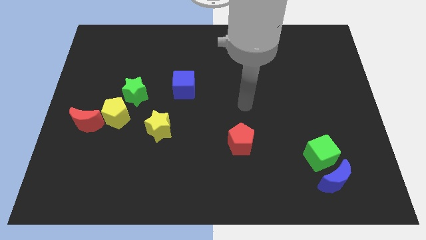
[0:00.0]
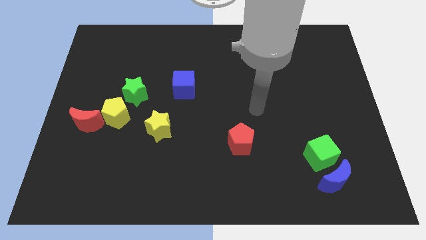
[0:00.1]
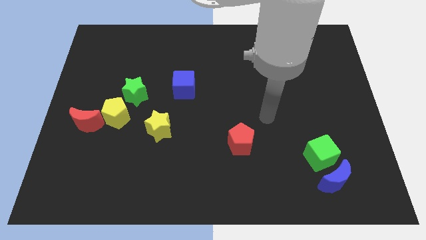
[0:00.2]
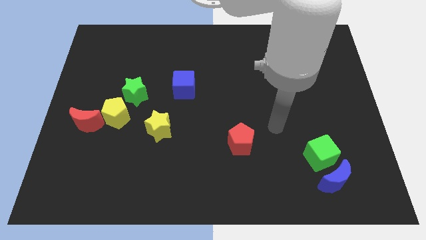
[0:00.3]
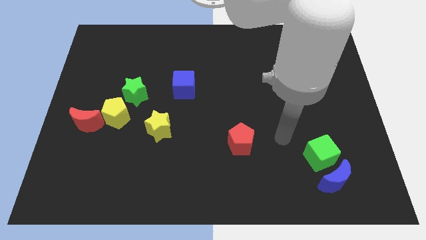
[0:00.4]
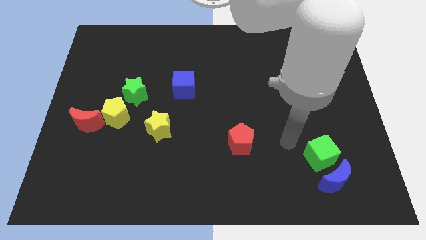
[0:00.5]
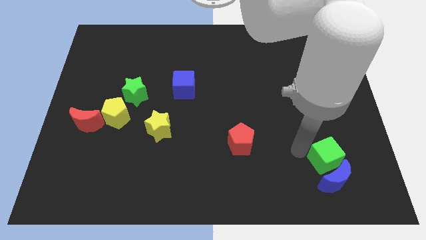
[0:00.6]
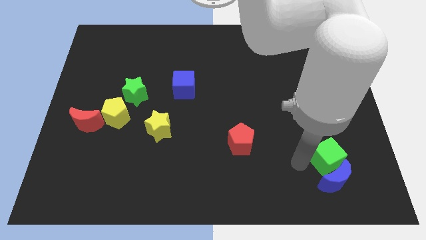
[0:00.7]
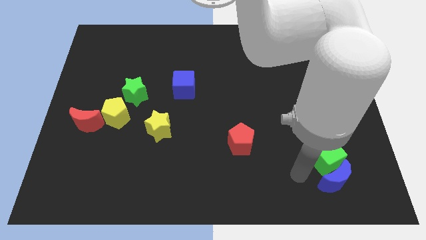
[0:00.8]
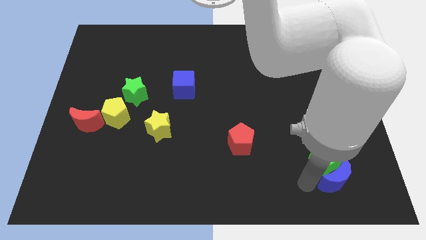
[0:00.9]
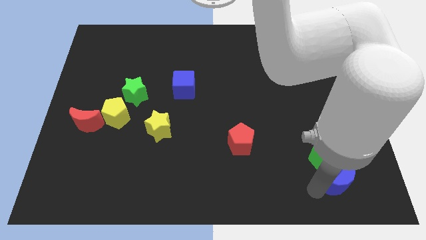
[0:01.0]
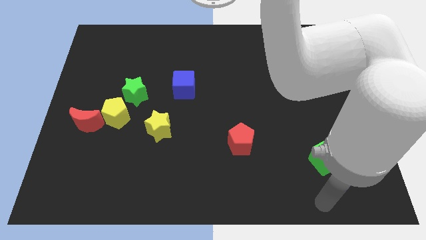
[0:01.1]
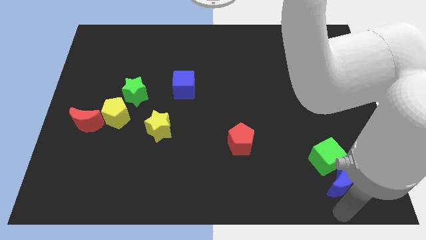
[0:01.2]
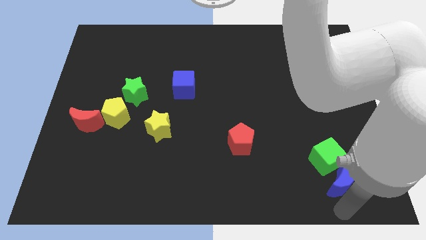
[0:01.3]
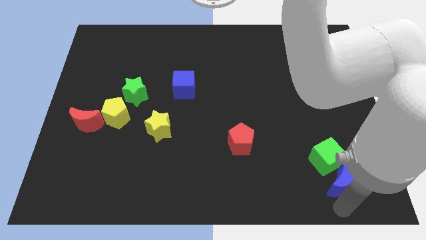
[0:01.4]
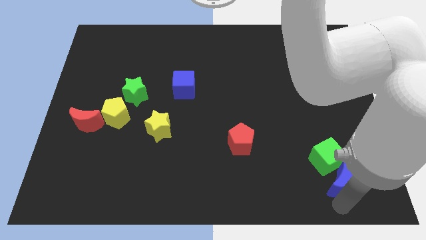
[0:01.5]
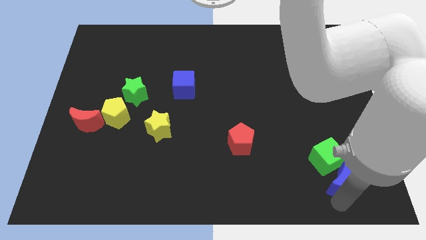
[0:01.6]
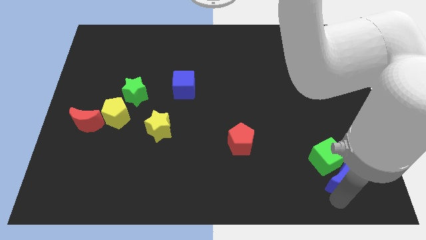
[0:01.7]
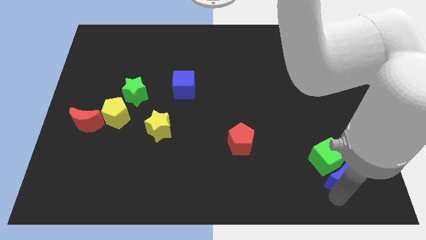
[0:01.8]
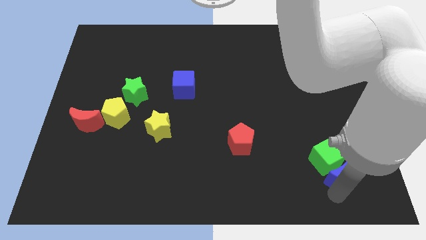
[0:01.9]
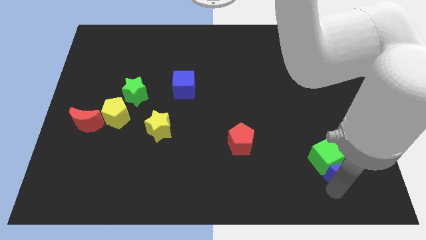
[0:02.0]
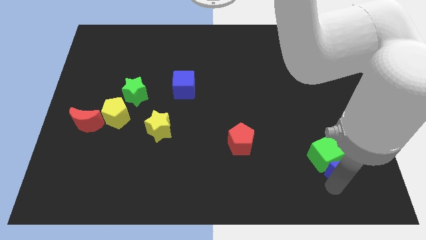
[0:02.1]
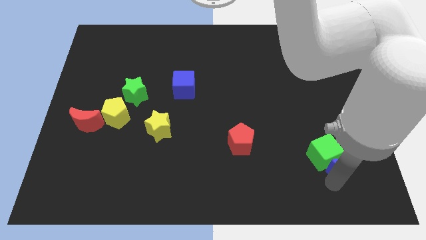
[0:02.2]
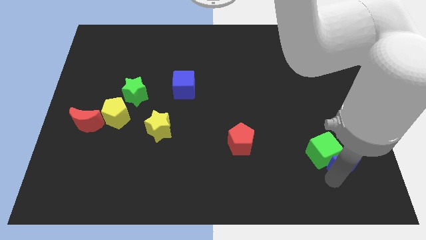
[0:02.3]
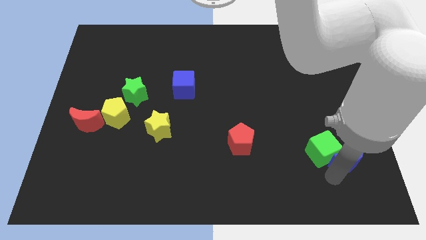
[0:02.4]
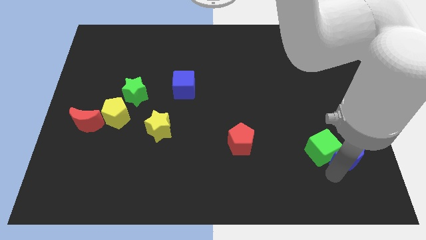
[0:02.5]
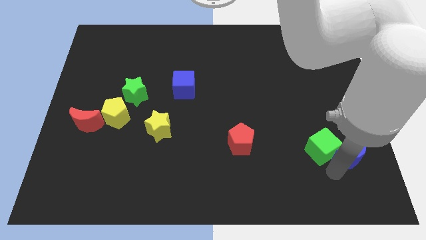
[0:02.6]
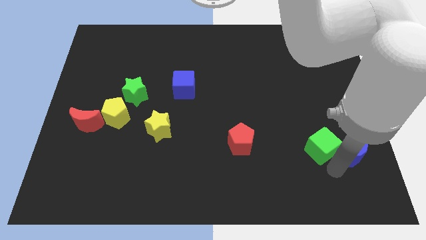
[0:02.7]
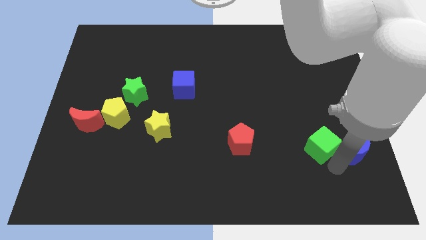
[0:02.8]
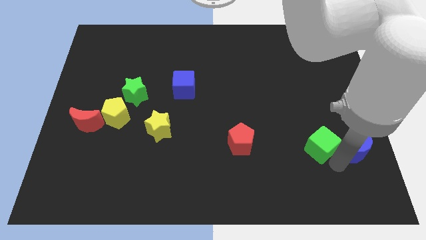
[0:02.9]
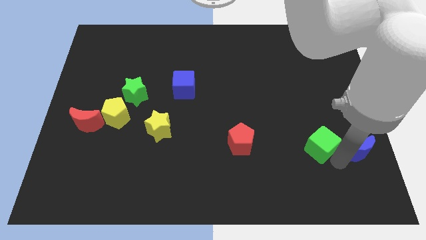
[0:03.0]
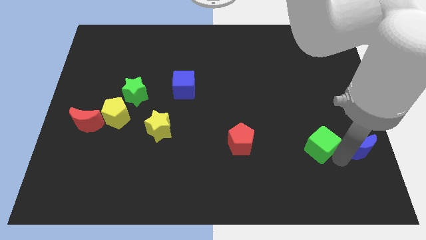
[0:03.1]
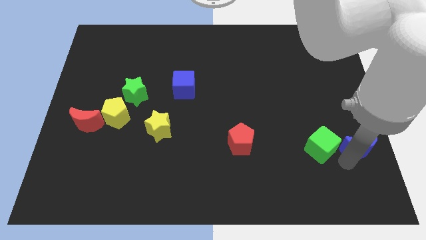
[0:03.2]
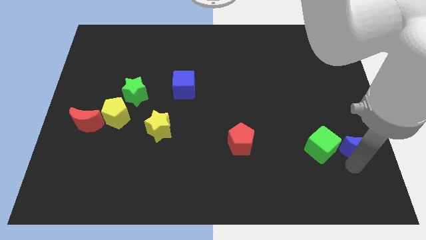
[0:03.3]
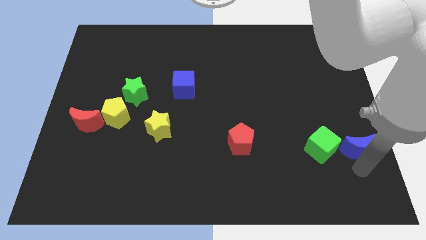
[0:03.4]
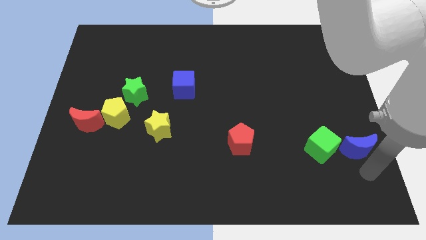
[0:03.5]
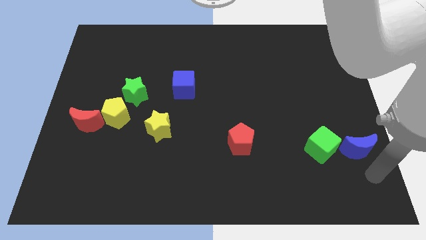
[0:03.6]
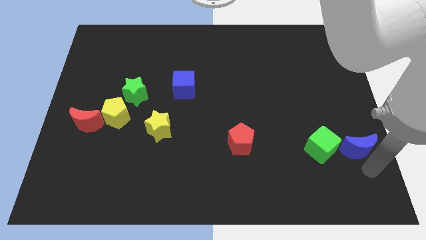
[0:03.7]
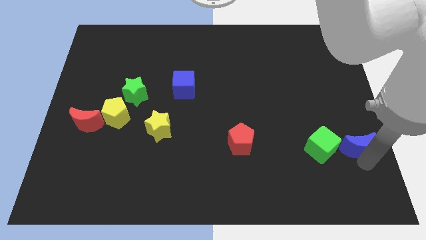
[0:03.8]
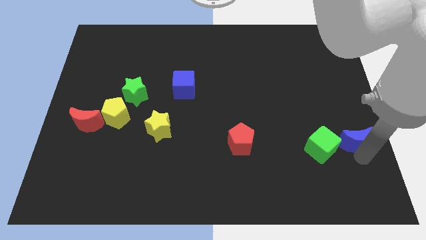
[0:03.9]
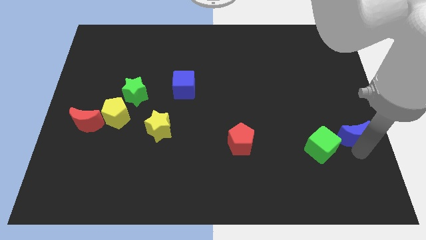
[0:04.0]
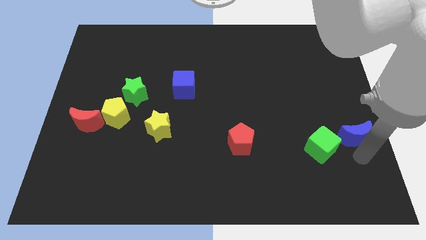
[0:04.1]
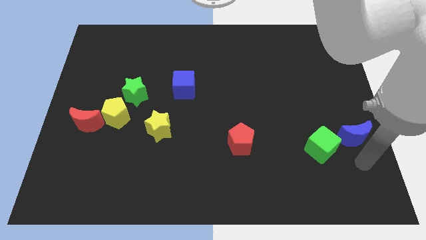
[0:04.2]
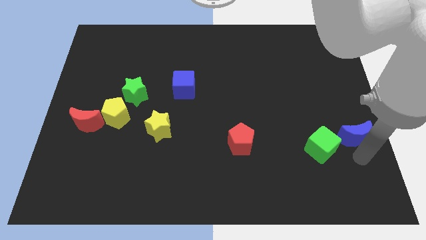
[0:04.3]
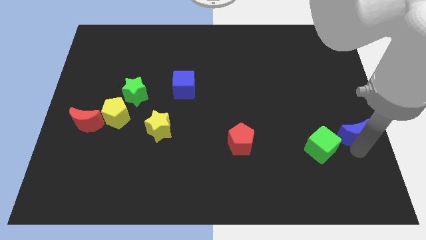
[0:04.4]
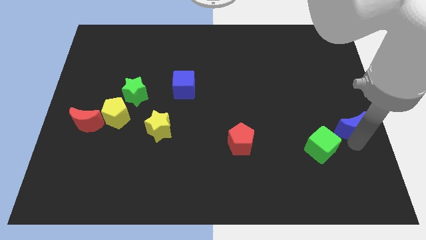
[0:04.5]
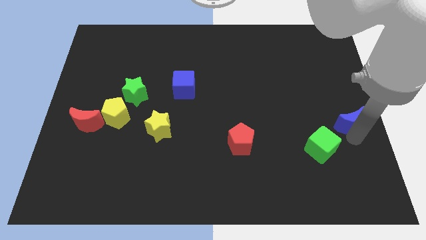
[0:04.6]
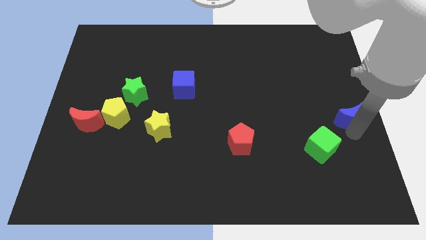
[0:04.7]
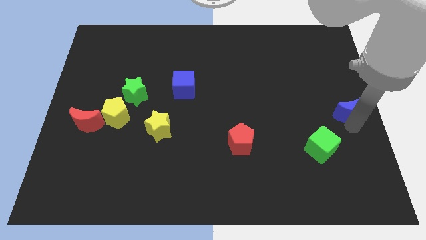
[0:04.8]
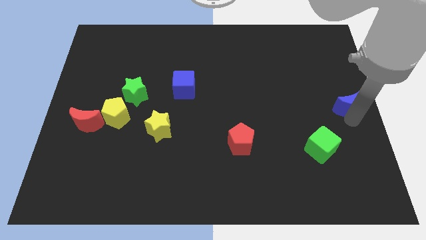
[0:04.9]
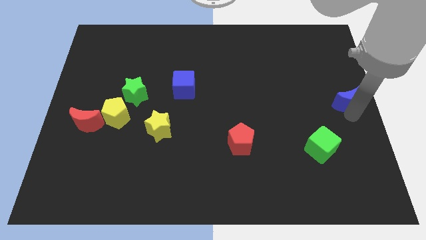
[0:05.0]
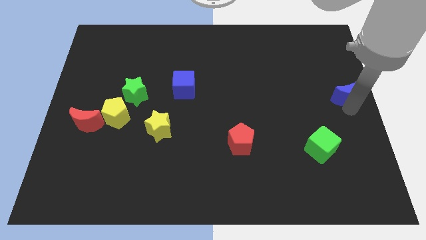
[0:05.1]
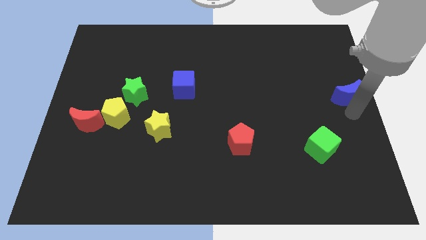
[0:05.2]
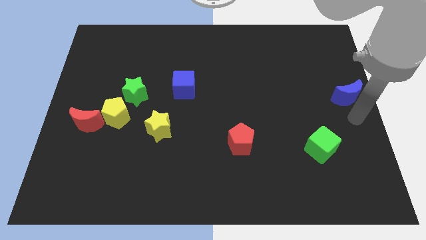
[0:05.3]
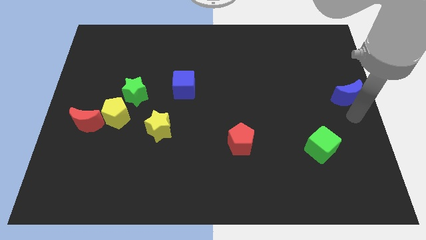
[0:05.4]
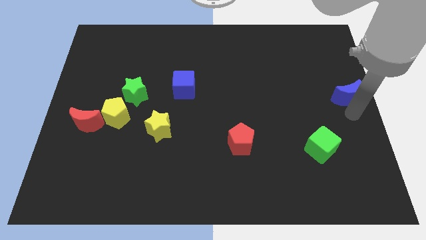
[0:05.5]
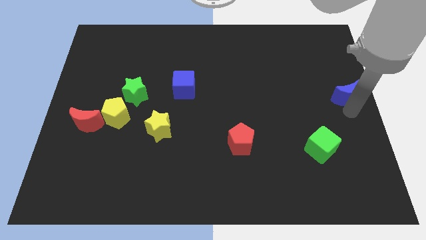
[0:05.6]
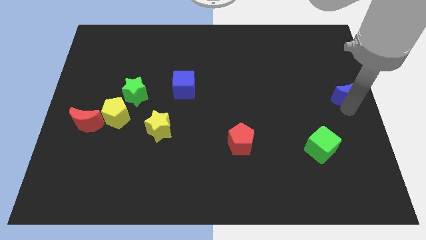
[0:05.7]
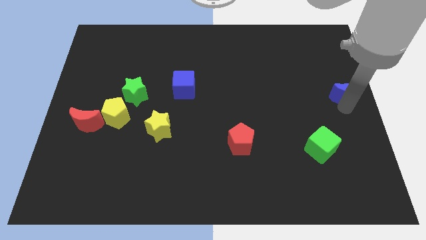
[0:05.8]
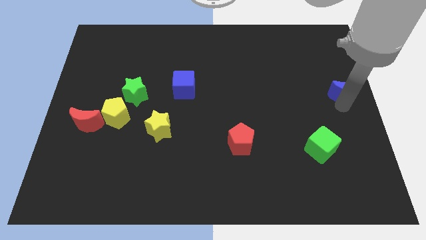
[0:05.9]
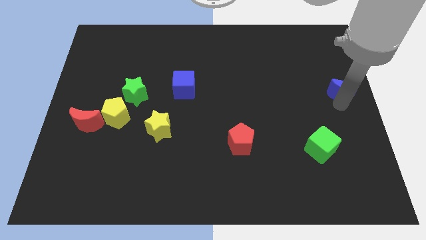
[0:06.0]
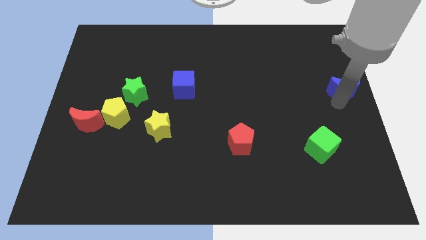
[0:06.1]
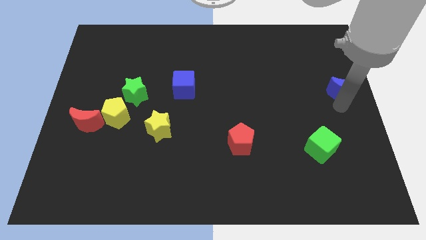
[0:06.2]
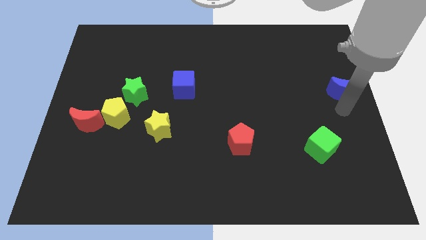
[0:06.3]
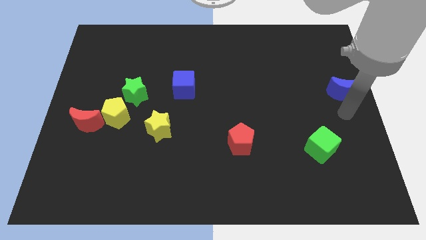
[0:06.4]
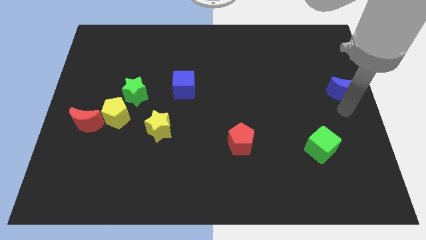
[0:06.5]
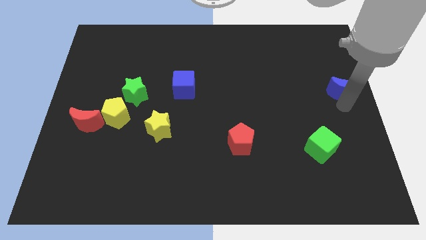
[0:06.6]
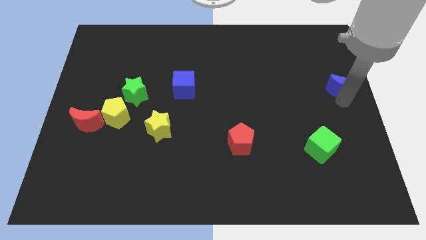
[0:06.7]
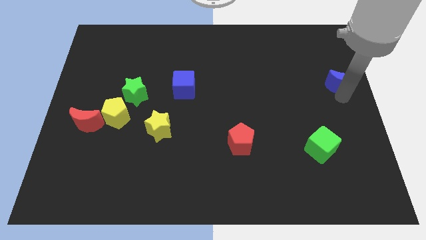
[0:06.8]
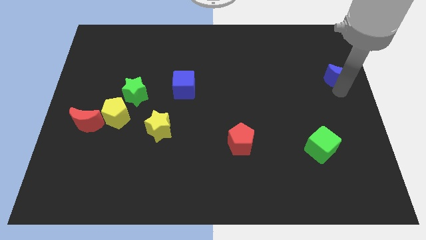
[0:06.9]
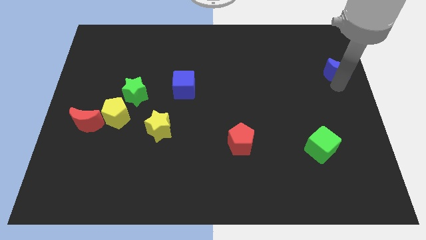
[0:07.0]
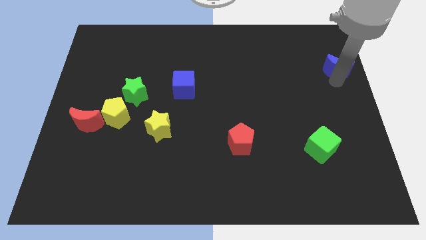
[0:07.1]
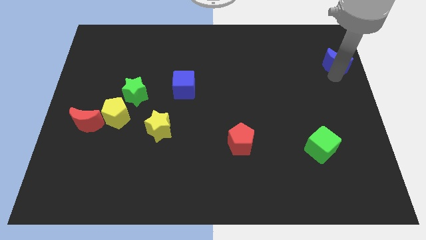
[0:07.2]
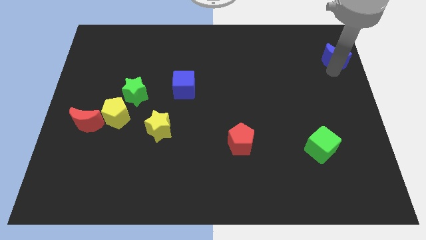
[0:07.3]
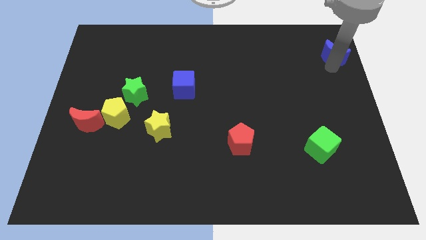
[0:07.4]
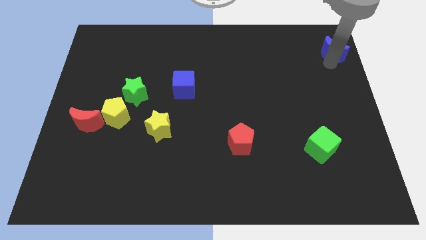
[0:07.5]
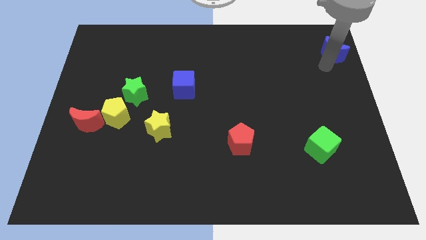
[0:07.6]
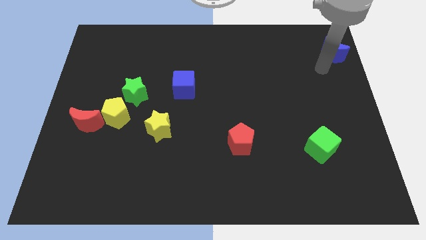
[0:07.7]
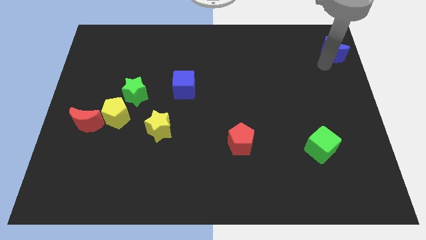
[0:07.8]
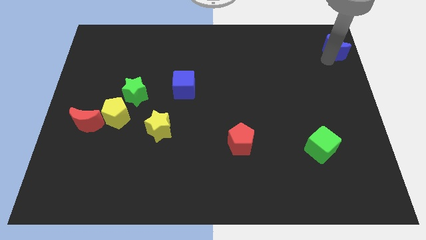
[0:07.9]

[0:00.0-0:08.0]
slide the blue moon to the top right corner
